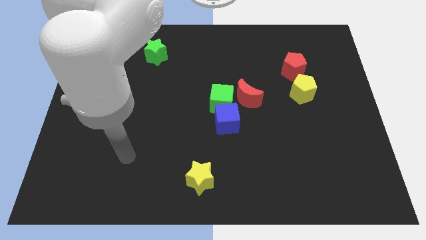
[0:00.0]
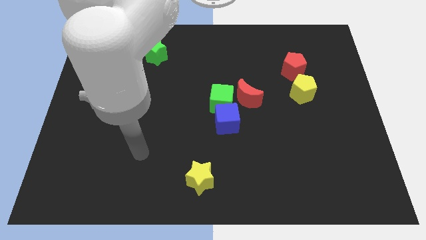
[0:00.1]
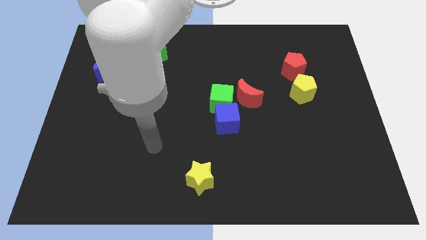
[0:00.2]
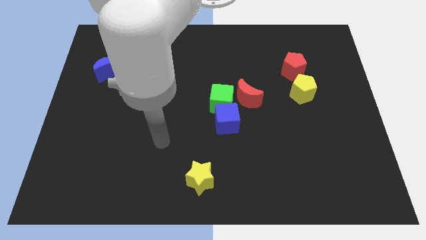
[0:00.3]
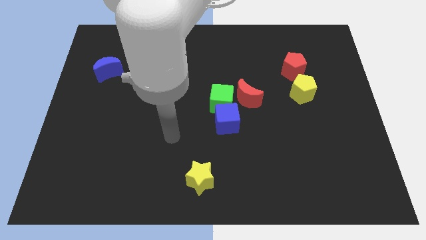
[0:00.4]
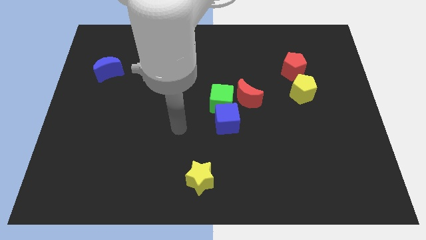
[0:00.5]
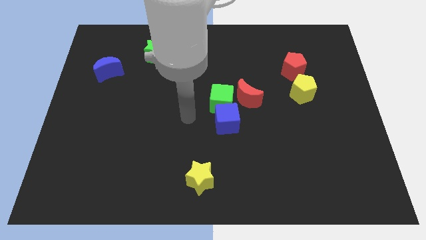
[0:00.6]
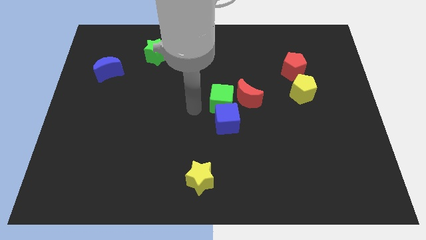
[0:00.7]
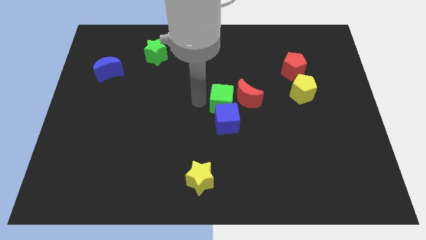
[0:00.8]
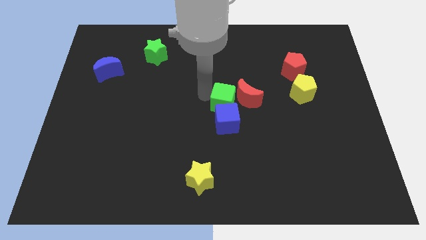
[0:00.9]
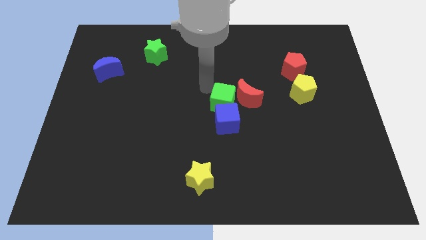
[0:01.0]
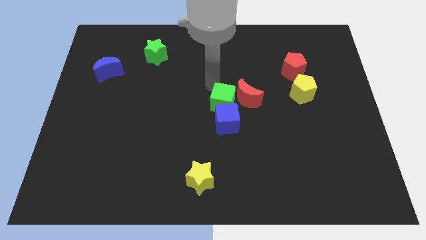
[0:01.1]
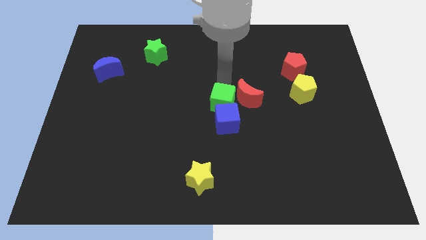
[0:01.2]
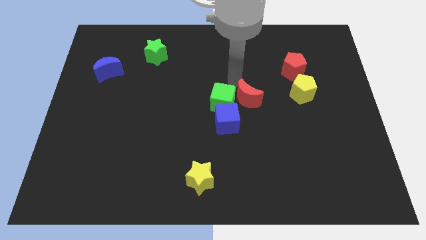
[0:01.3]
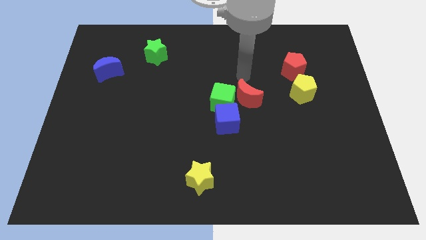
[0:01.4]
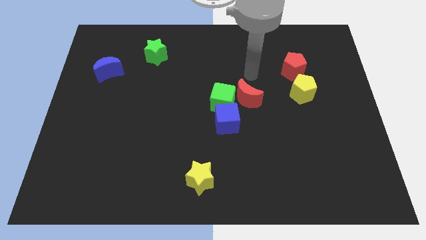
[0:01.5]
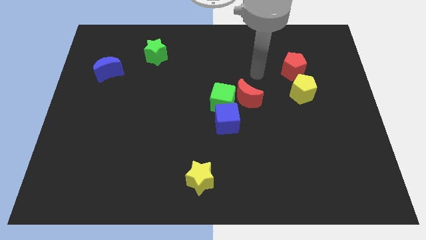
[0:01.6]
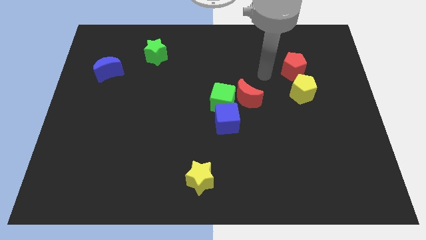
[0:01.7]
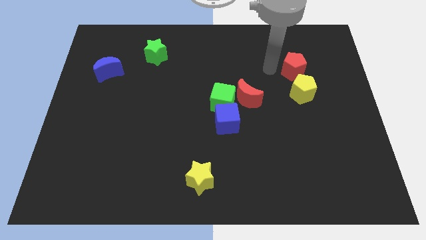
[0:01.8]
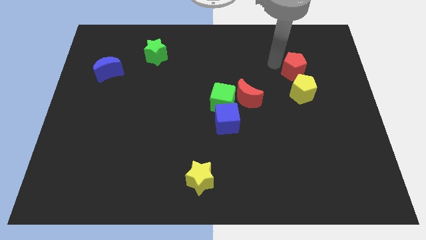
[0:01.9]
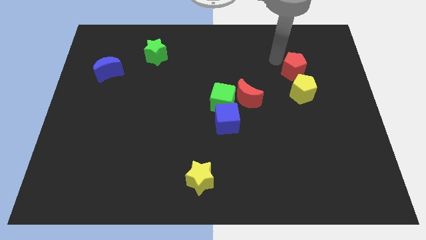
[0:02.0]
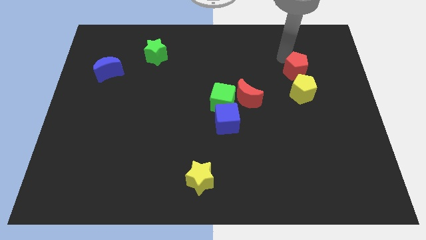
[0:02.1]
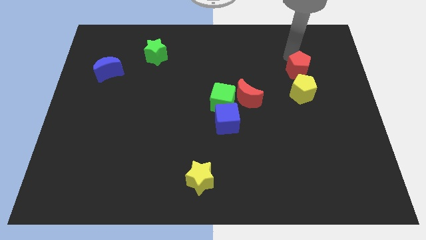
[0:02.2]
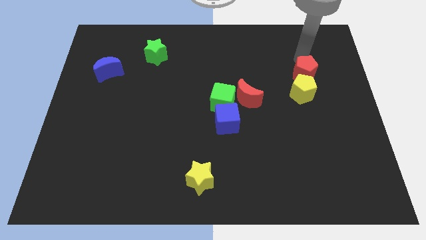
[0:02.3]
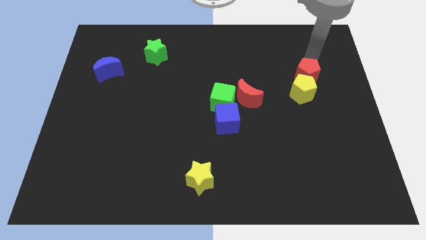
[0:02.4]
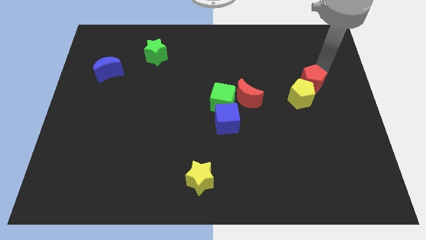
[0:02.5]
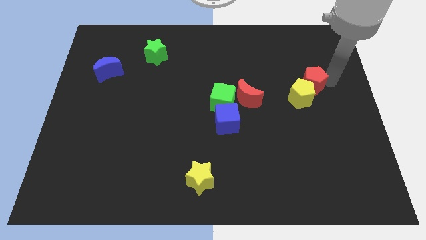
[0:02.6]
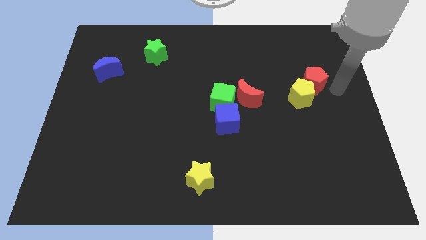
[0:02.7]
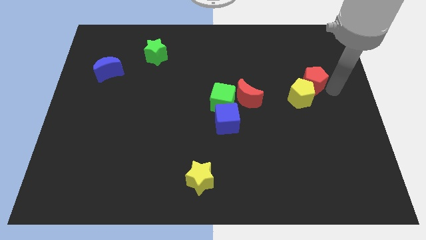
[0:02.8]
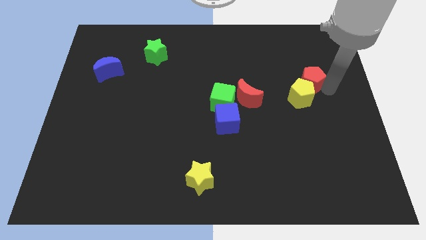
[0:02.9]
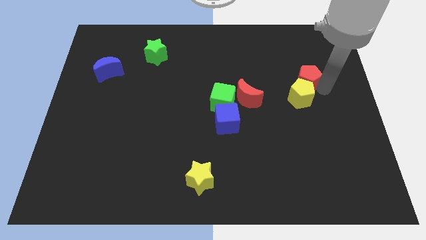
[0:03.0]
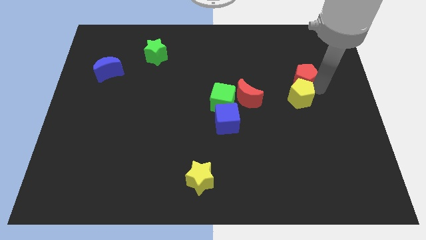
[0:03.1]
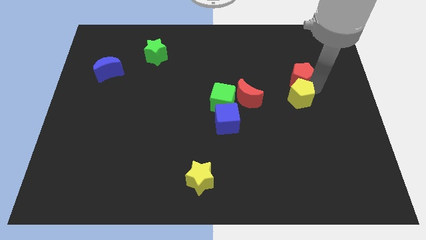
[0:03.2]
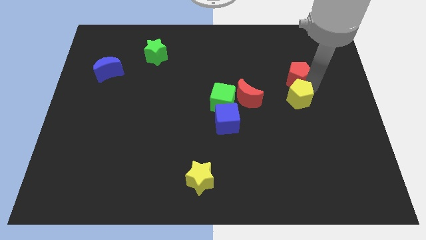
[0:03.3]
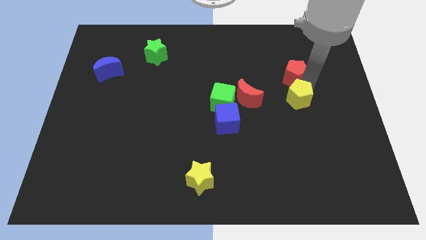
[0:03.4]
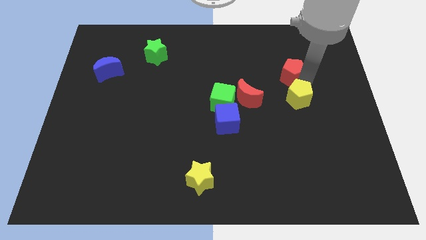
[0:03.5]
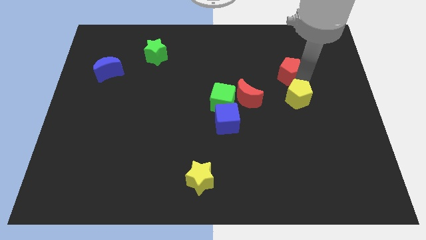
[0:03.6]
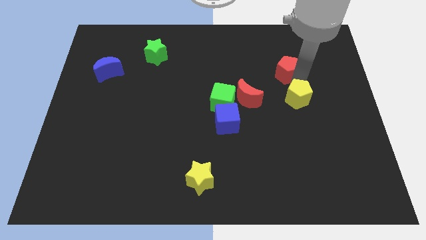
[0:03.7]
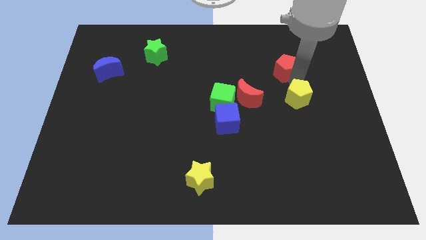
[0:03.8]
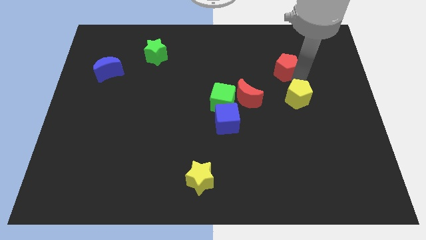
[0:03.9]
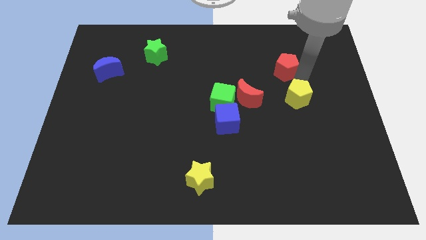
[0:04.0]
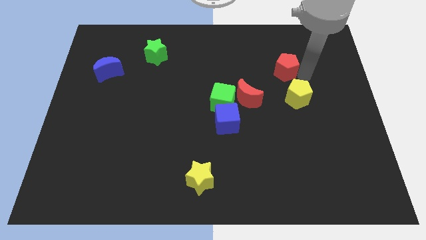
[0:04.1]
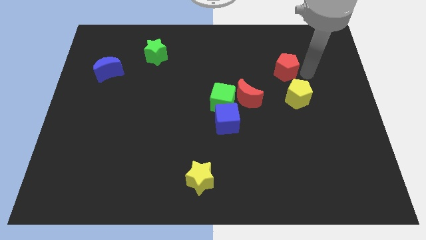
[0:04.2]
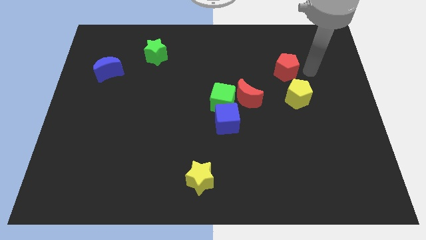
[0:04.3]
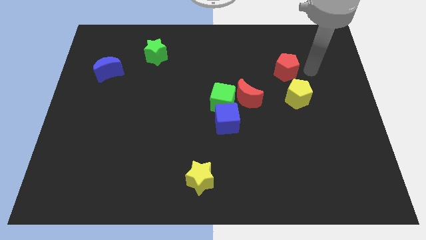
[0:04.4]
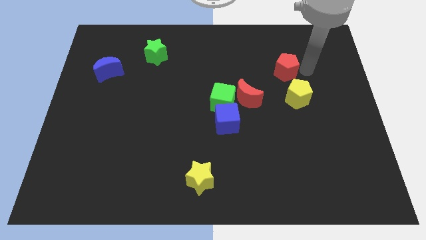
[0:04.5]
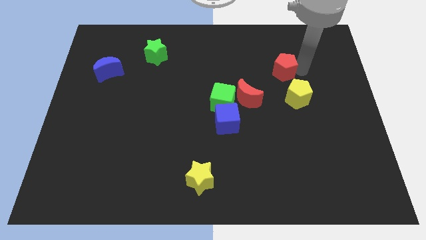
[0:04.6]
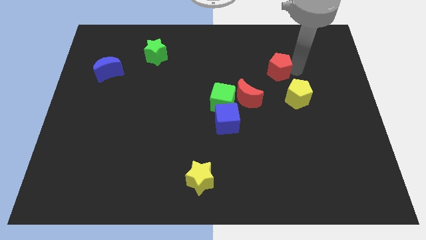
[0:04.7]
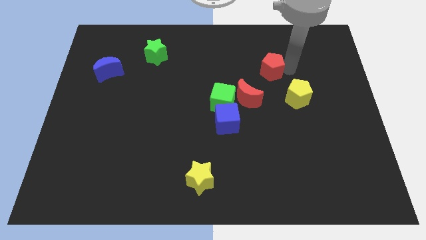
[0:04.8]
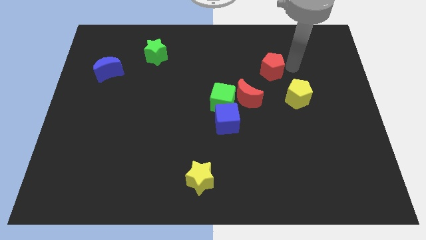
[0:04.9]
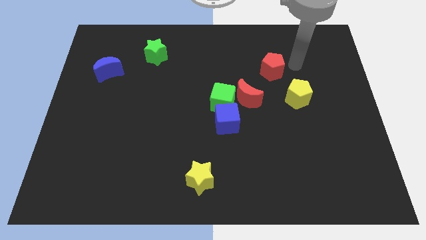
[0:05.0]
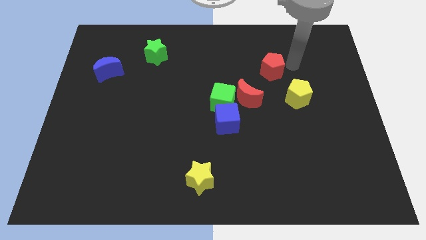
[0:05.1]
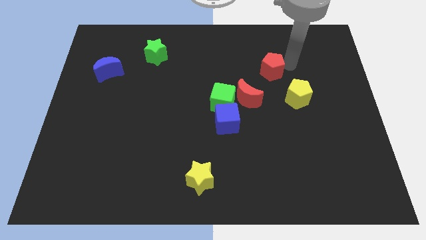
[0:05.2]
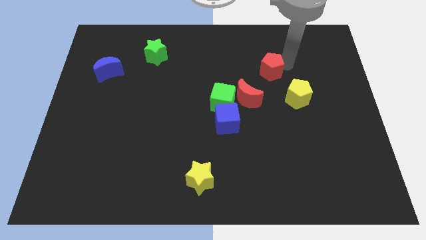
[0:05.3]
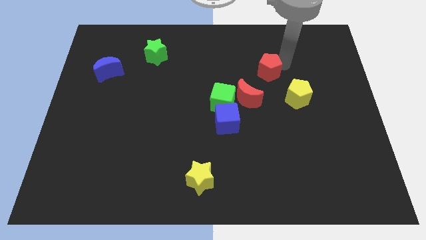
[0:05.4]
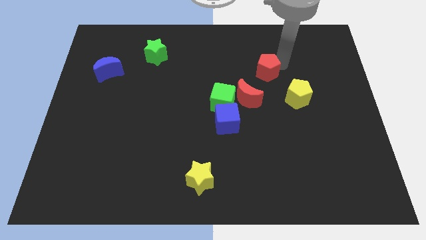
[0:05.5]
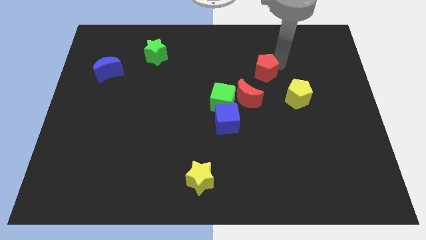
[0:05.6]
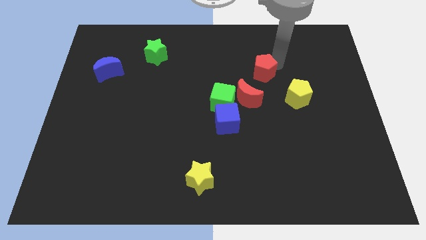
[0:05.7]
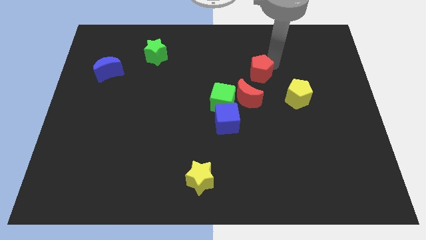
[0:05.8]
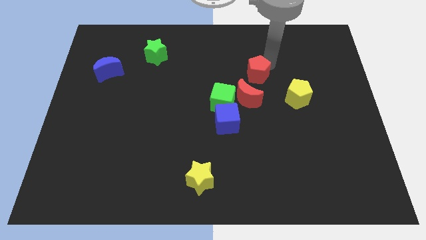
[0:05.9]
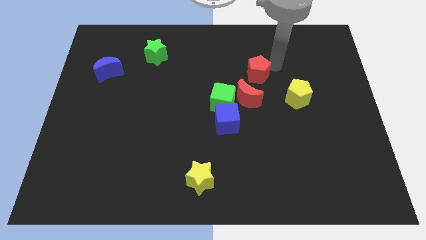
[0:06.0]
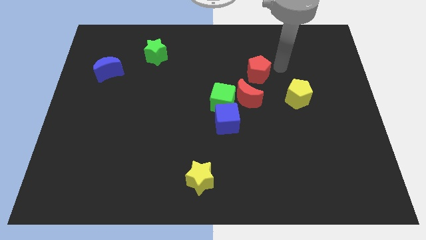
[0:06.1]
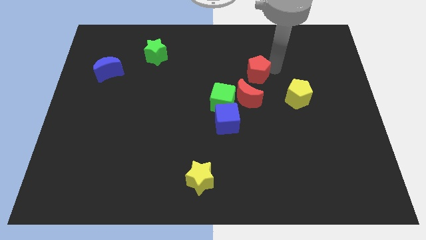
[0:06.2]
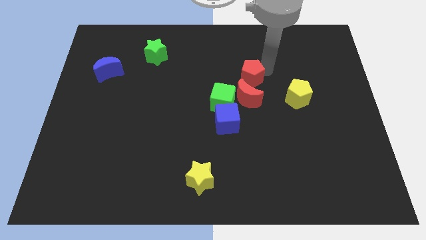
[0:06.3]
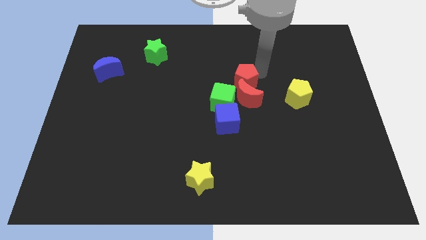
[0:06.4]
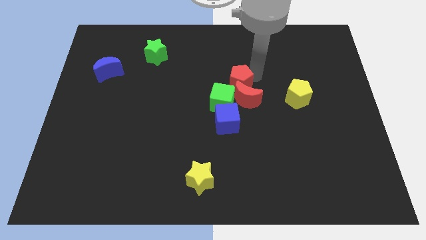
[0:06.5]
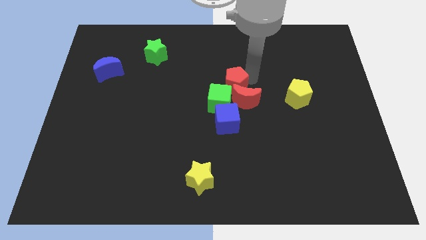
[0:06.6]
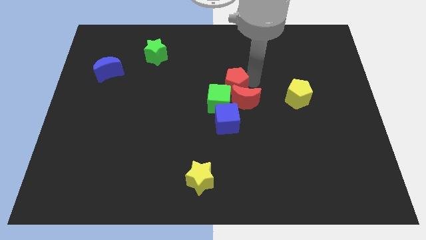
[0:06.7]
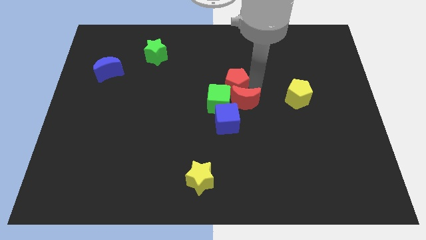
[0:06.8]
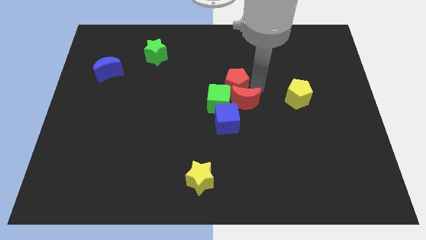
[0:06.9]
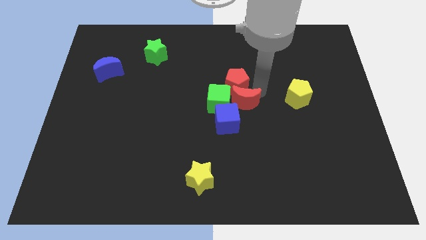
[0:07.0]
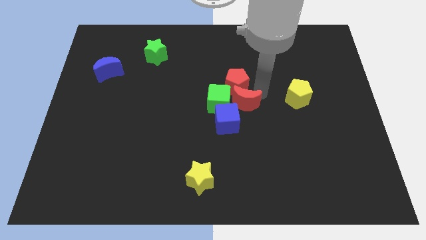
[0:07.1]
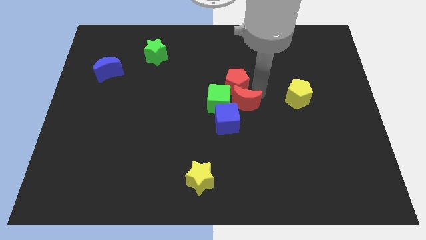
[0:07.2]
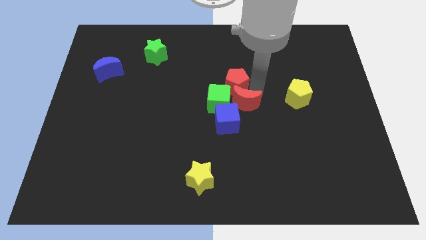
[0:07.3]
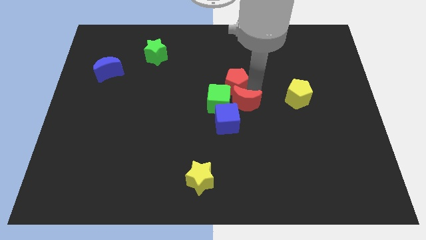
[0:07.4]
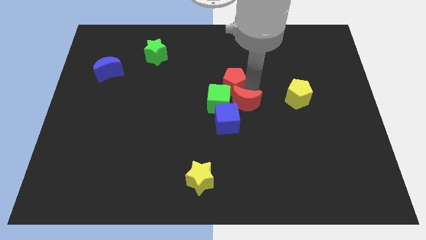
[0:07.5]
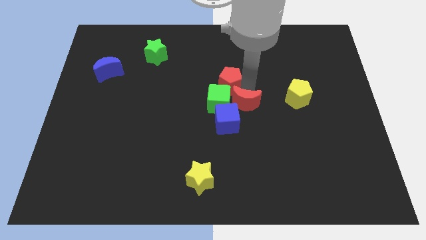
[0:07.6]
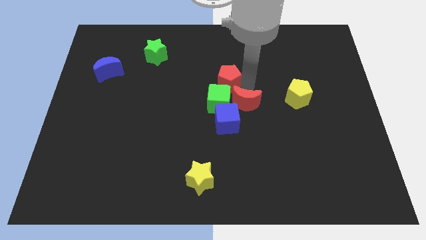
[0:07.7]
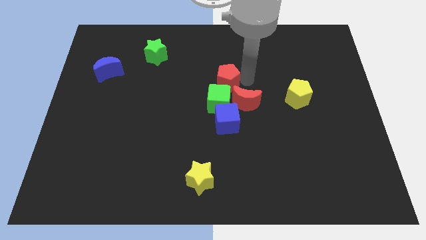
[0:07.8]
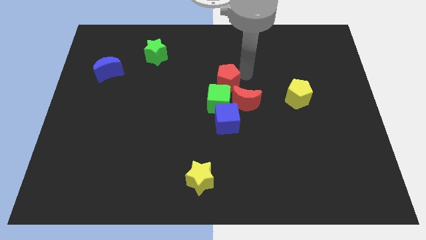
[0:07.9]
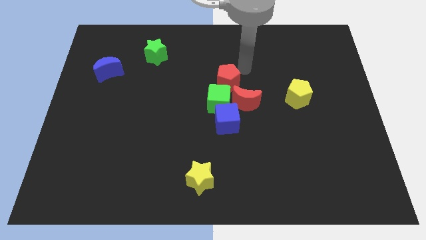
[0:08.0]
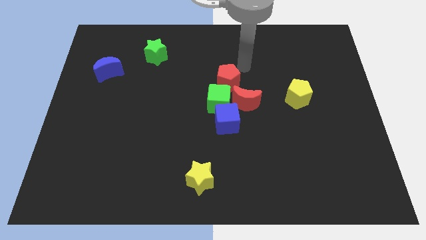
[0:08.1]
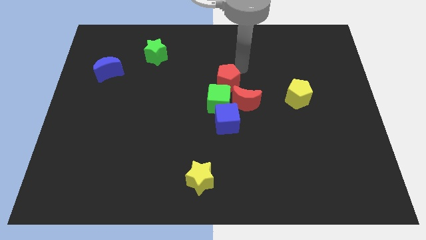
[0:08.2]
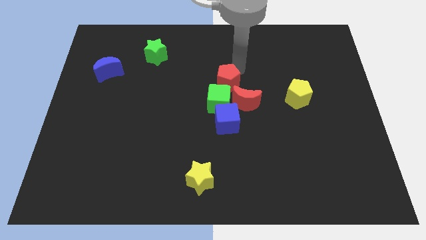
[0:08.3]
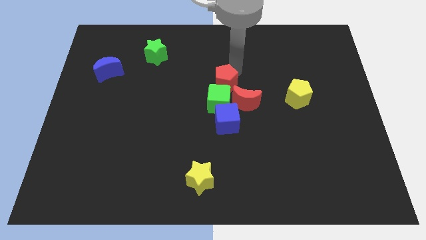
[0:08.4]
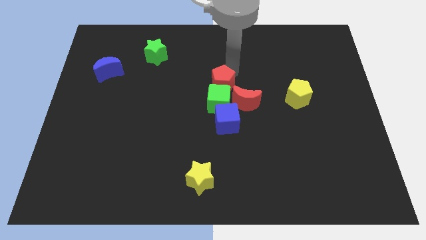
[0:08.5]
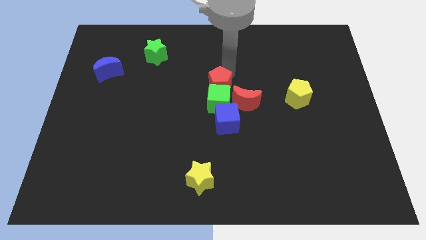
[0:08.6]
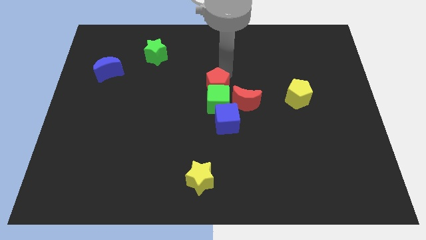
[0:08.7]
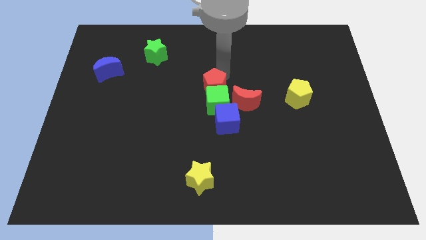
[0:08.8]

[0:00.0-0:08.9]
slide the red pentagon left of the red moon
